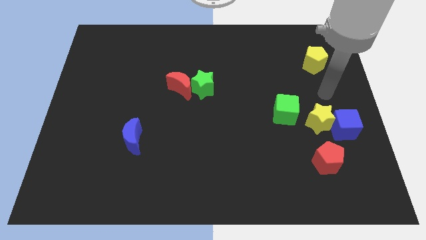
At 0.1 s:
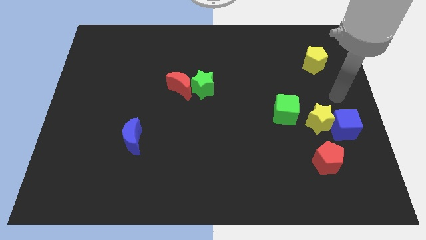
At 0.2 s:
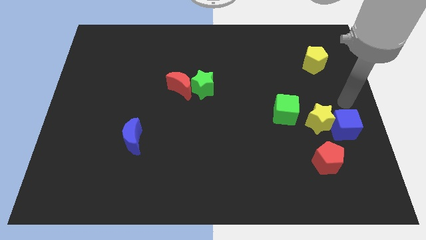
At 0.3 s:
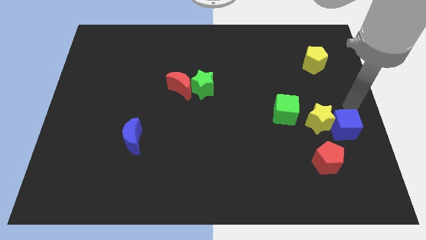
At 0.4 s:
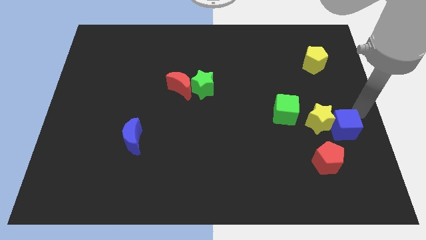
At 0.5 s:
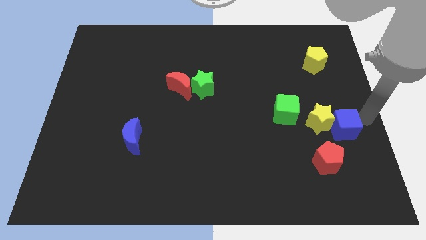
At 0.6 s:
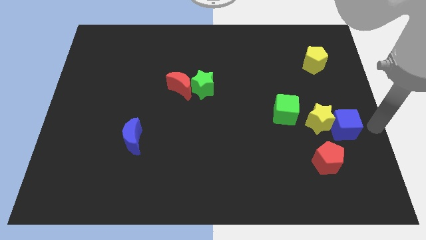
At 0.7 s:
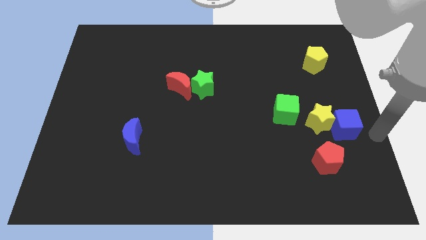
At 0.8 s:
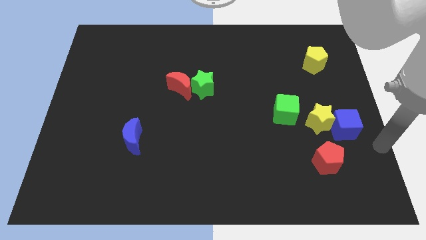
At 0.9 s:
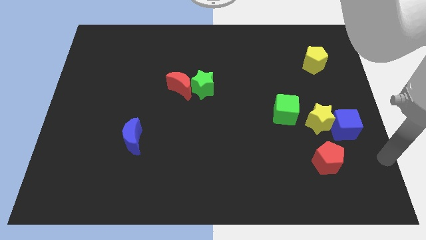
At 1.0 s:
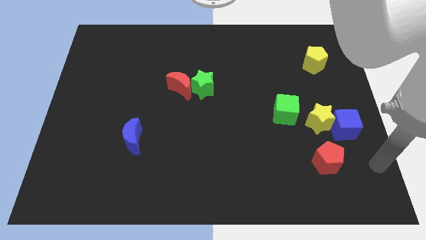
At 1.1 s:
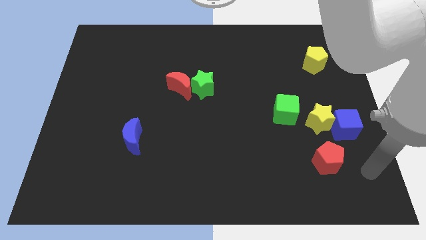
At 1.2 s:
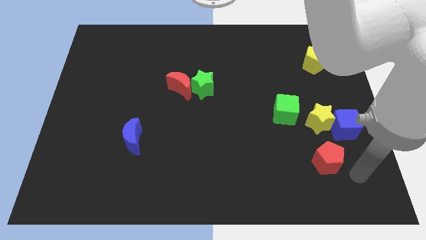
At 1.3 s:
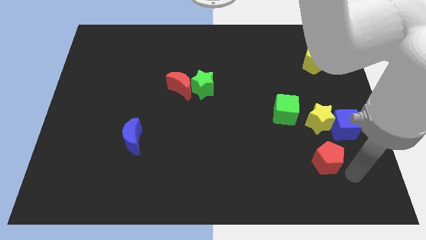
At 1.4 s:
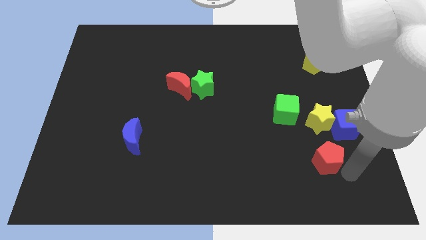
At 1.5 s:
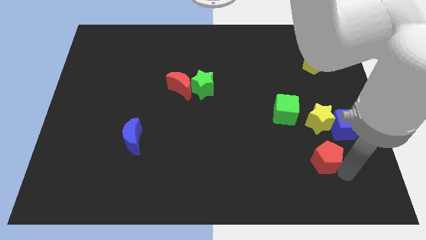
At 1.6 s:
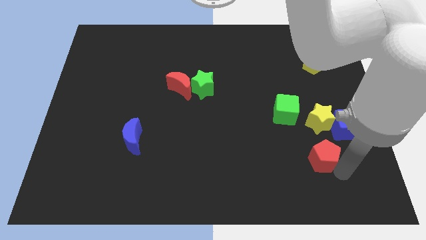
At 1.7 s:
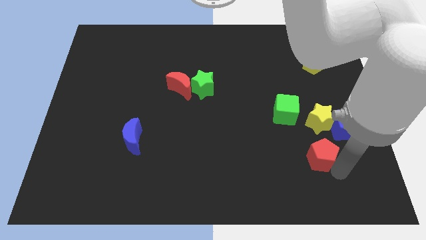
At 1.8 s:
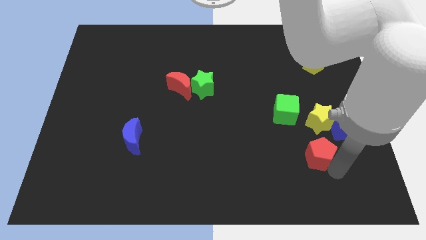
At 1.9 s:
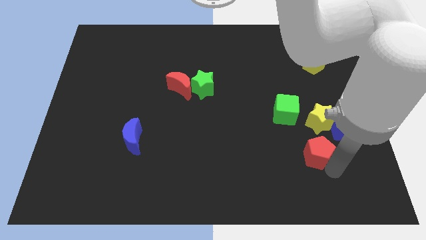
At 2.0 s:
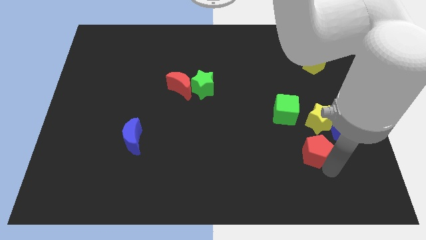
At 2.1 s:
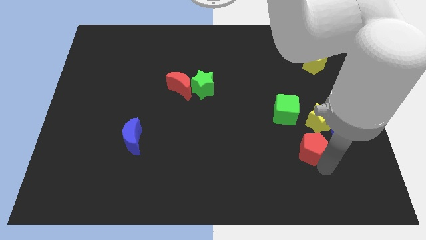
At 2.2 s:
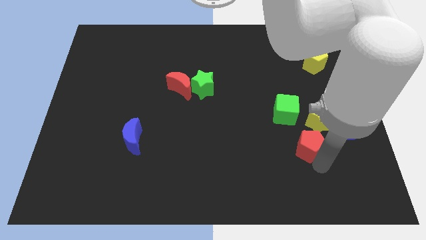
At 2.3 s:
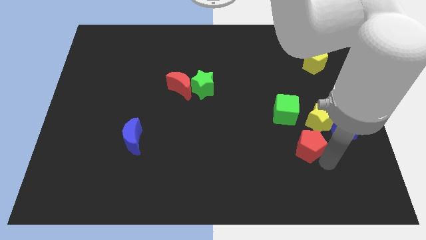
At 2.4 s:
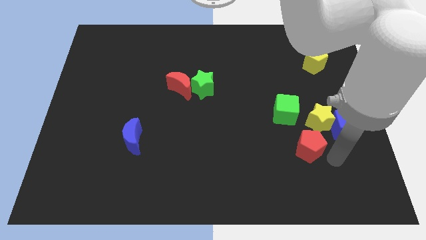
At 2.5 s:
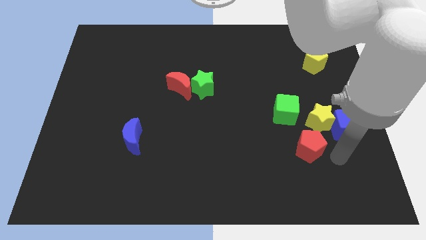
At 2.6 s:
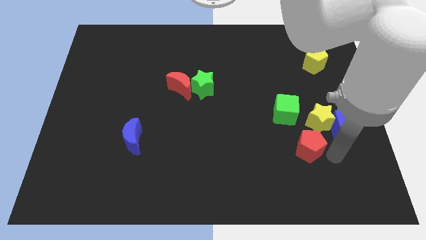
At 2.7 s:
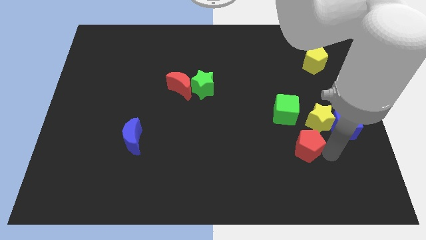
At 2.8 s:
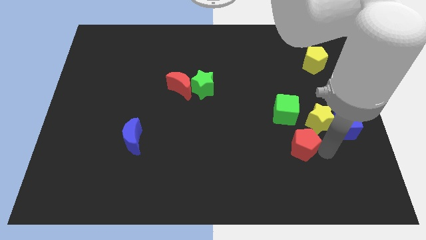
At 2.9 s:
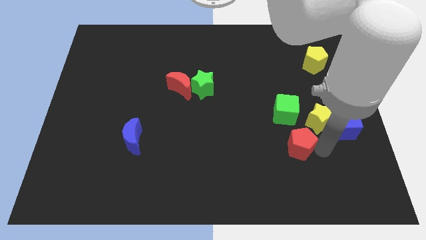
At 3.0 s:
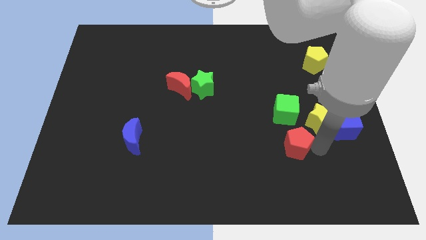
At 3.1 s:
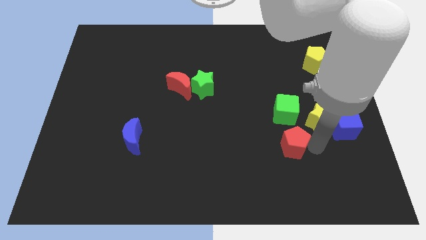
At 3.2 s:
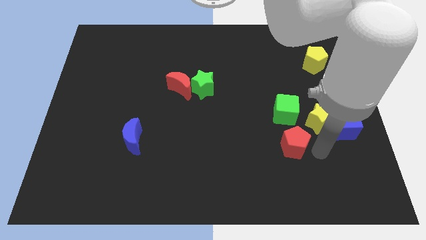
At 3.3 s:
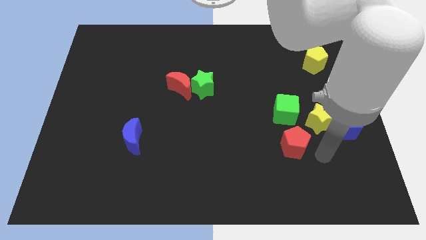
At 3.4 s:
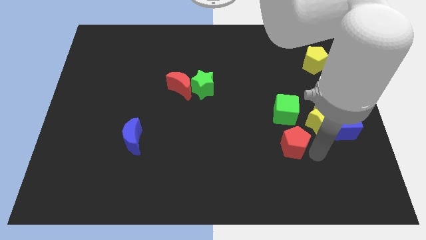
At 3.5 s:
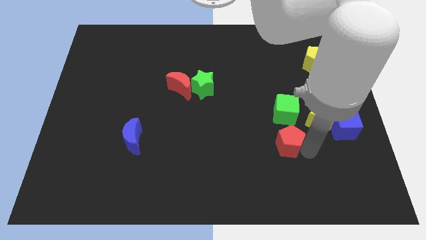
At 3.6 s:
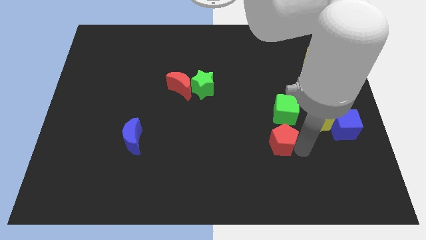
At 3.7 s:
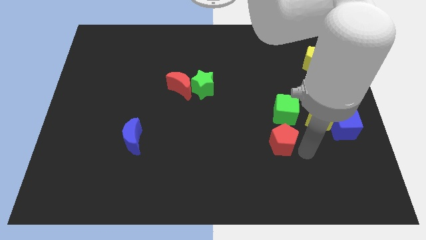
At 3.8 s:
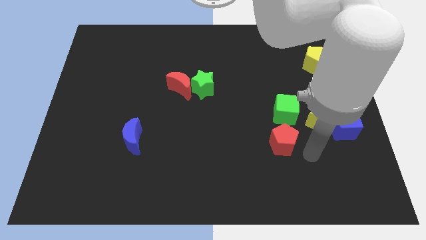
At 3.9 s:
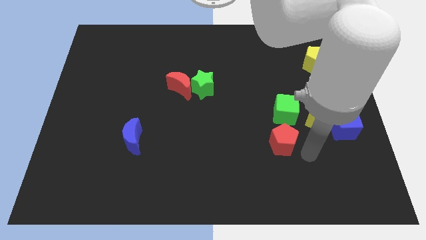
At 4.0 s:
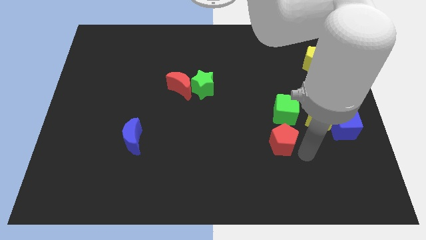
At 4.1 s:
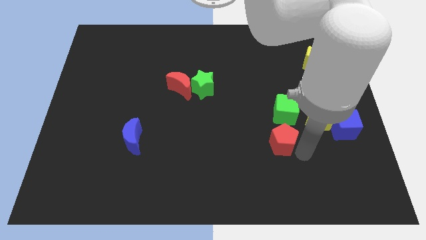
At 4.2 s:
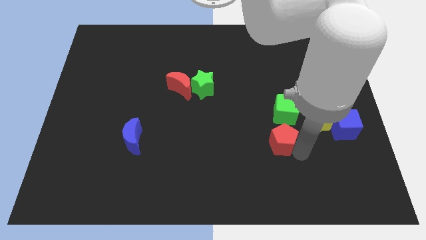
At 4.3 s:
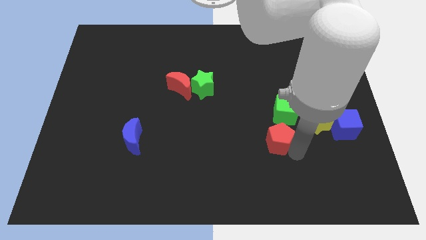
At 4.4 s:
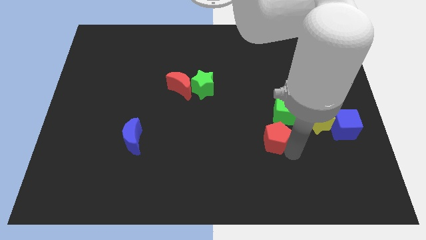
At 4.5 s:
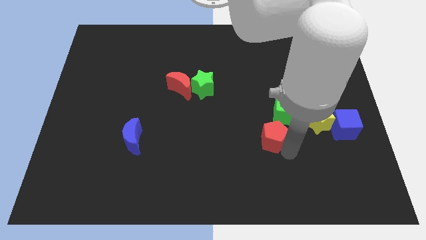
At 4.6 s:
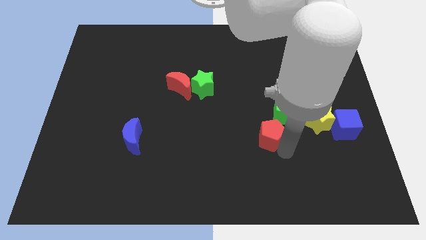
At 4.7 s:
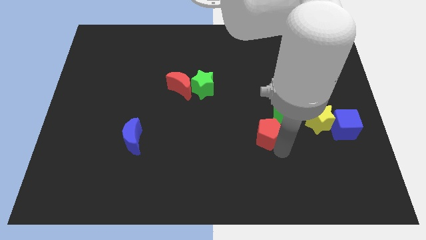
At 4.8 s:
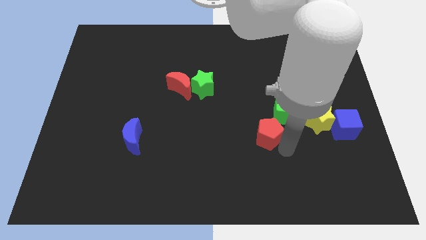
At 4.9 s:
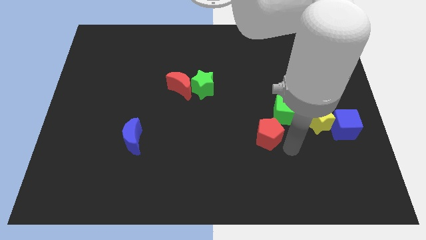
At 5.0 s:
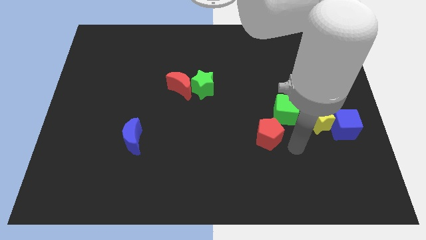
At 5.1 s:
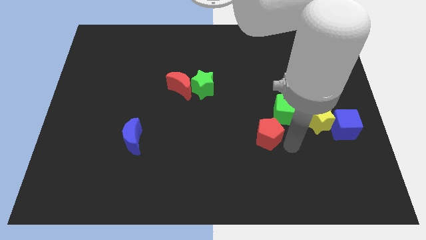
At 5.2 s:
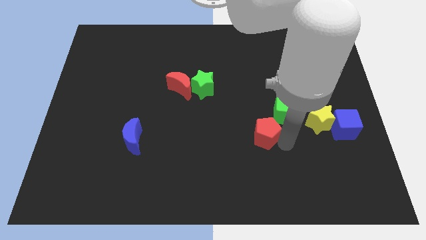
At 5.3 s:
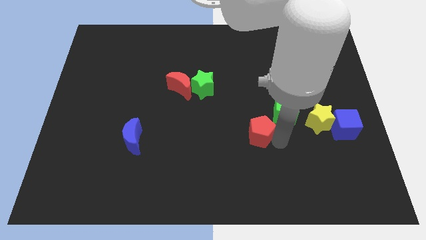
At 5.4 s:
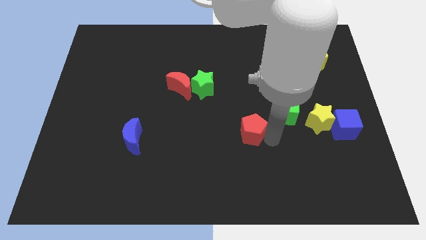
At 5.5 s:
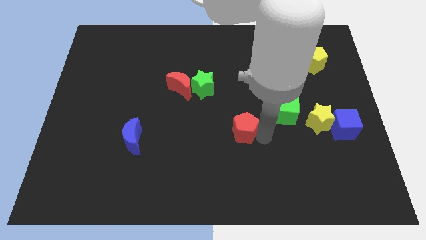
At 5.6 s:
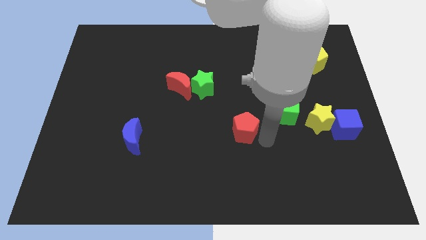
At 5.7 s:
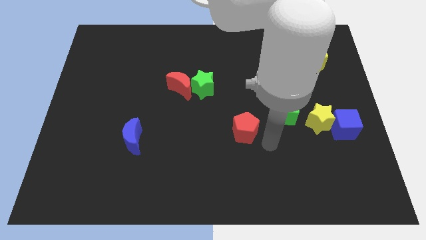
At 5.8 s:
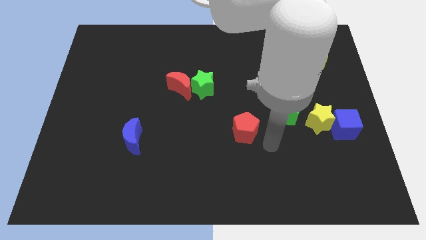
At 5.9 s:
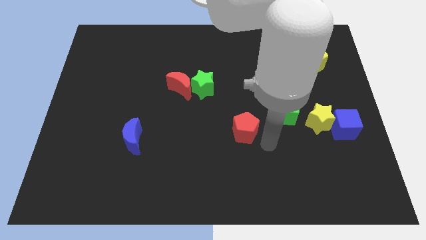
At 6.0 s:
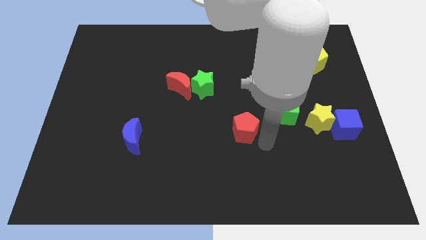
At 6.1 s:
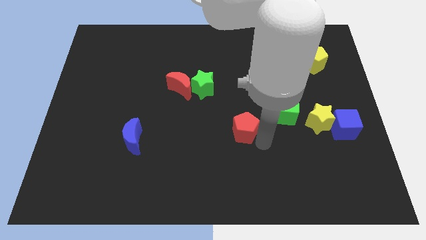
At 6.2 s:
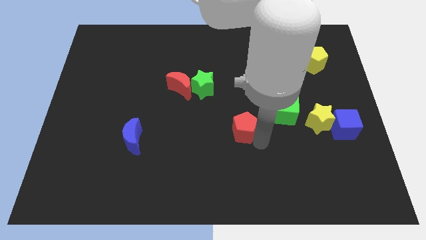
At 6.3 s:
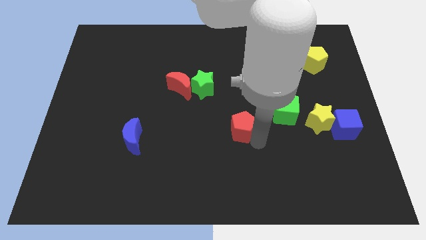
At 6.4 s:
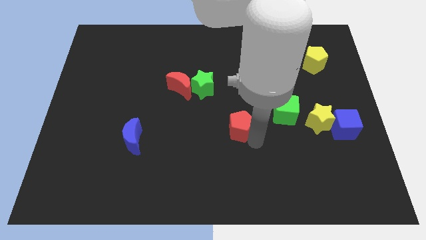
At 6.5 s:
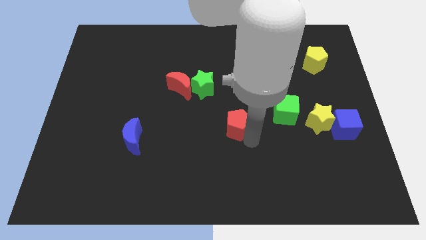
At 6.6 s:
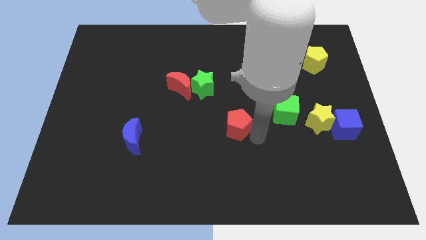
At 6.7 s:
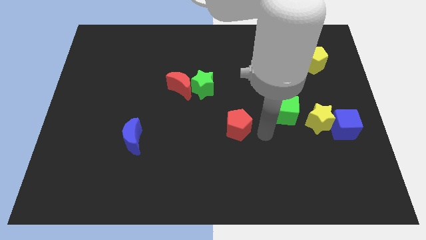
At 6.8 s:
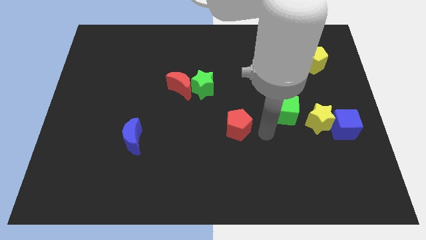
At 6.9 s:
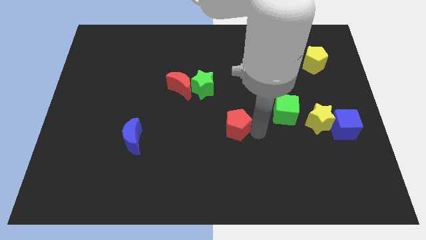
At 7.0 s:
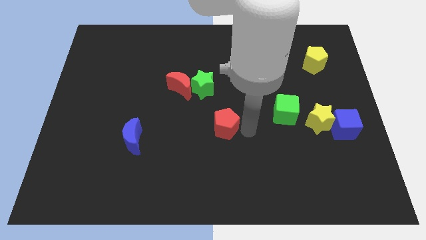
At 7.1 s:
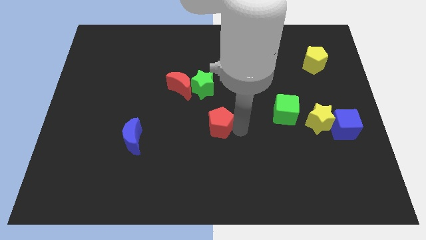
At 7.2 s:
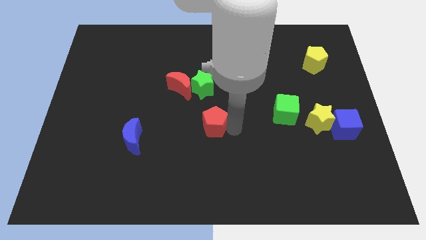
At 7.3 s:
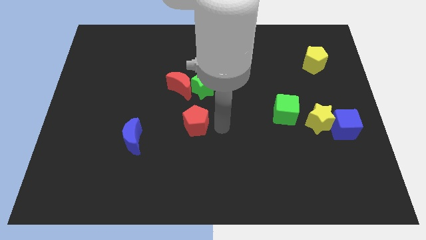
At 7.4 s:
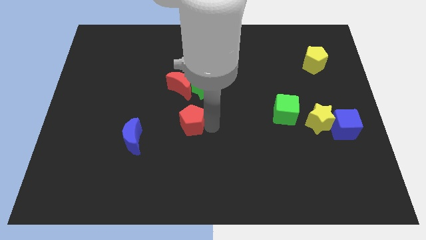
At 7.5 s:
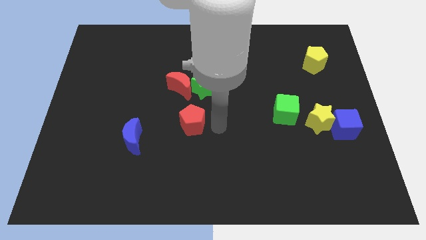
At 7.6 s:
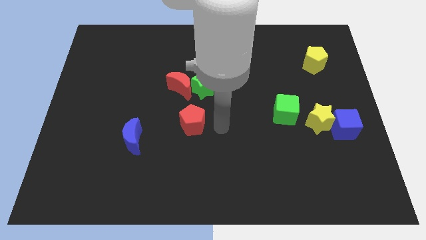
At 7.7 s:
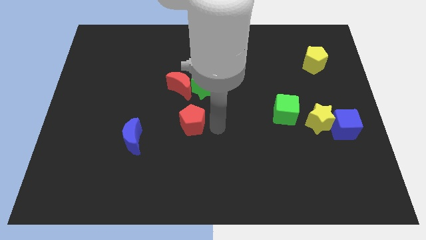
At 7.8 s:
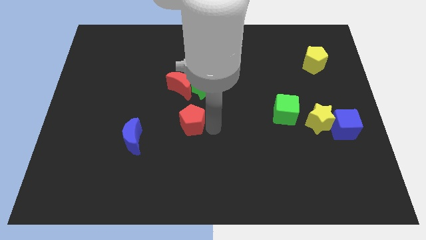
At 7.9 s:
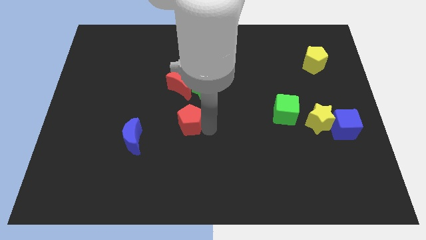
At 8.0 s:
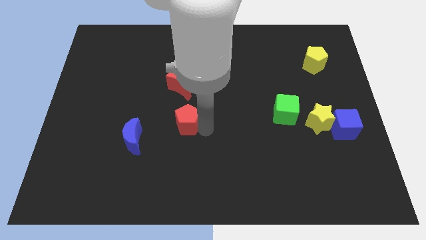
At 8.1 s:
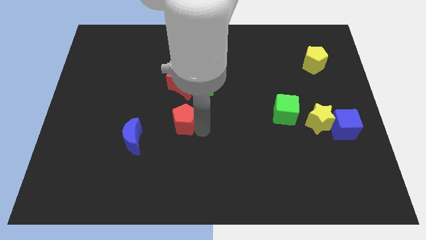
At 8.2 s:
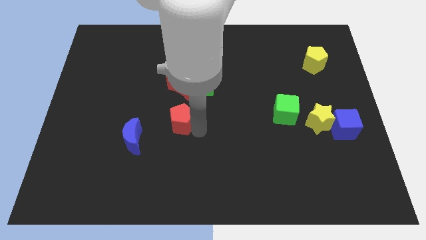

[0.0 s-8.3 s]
put the red pentagon to the top right side of the blue moon
